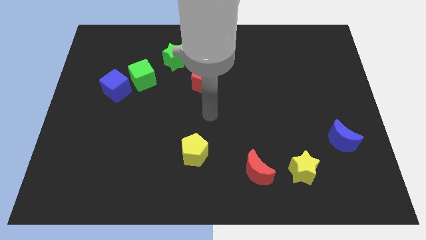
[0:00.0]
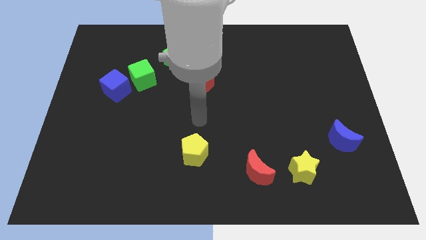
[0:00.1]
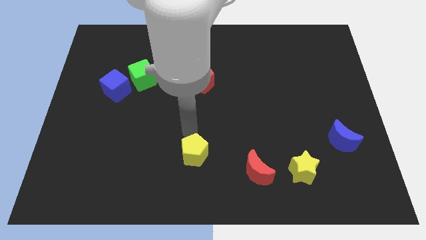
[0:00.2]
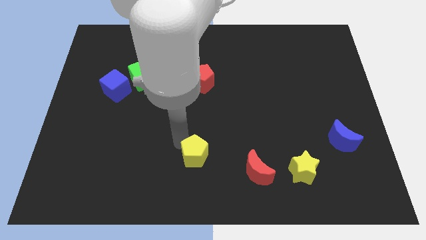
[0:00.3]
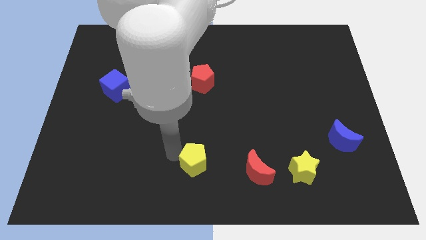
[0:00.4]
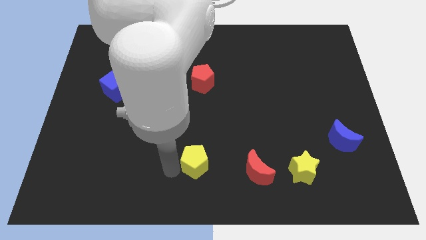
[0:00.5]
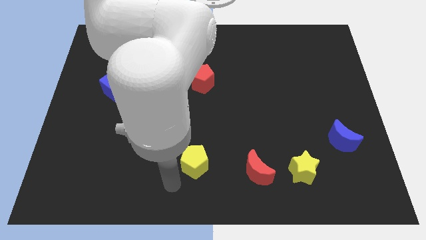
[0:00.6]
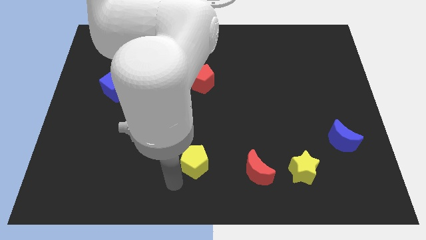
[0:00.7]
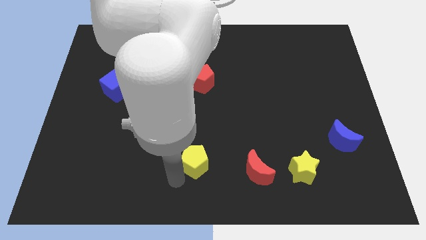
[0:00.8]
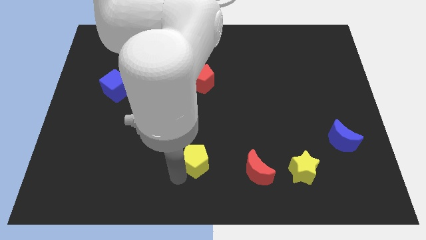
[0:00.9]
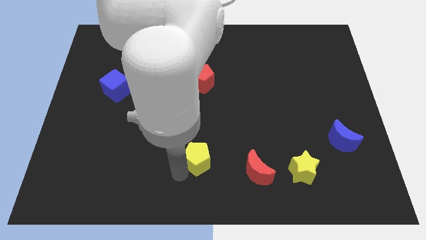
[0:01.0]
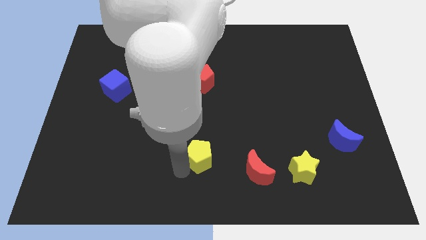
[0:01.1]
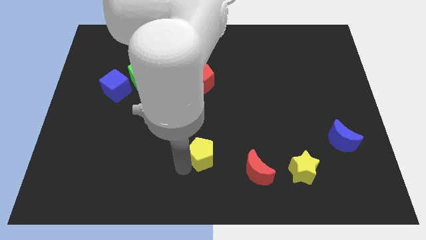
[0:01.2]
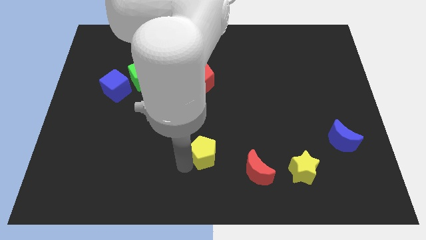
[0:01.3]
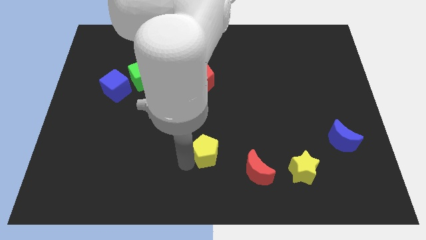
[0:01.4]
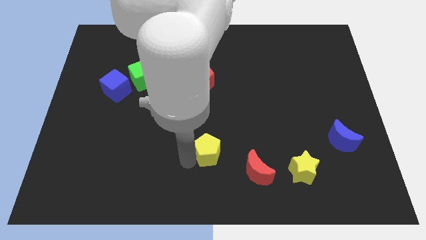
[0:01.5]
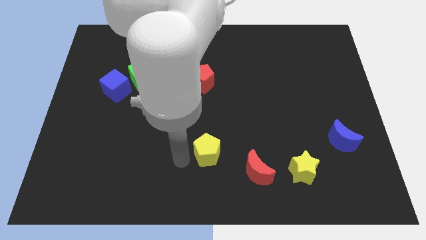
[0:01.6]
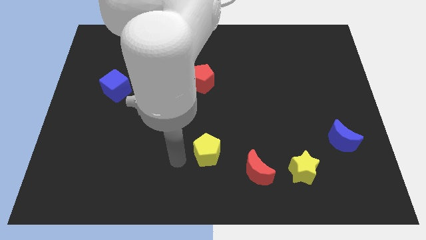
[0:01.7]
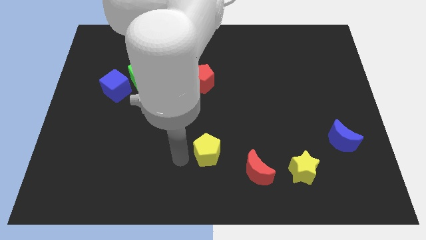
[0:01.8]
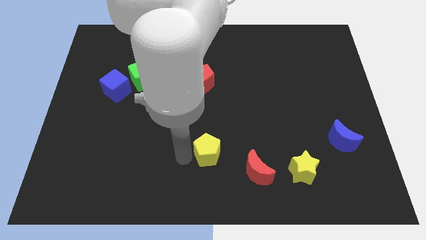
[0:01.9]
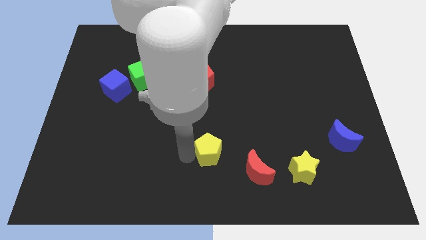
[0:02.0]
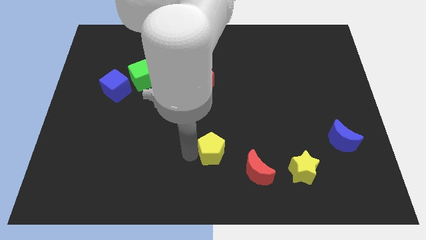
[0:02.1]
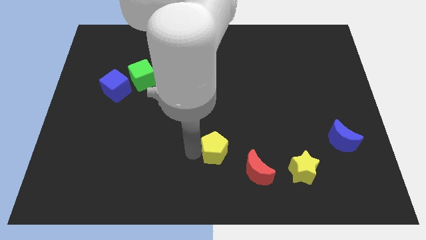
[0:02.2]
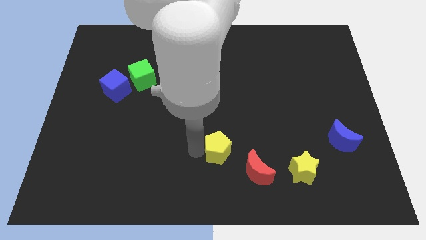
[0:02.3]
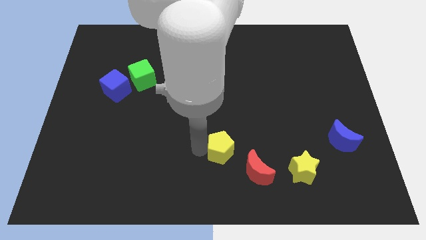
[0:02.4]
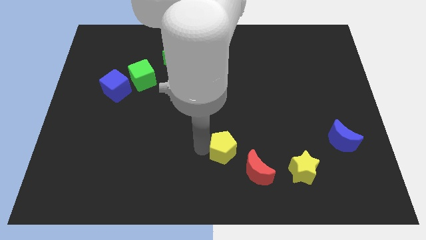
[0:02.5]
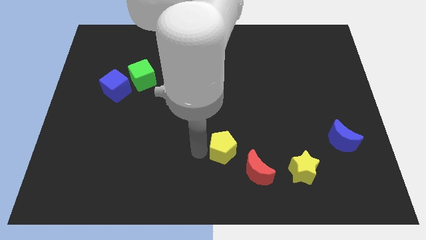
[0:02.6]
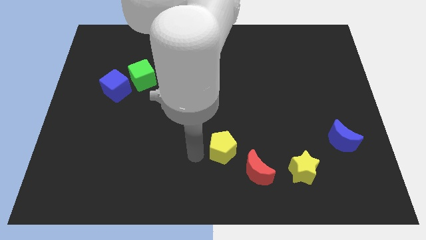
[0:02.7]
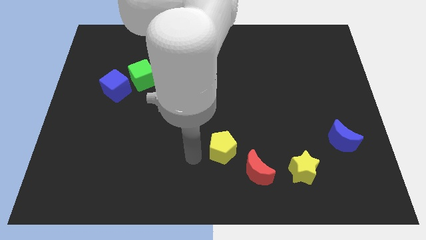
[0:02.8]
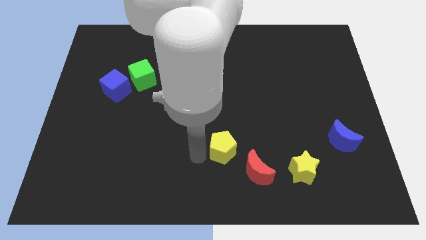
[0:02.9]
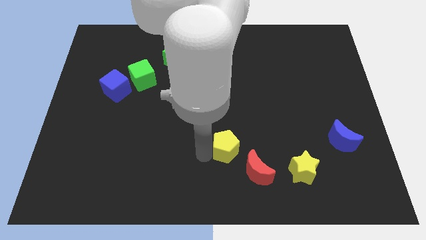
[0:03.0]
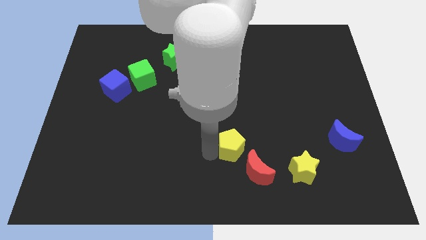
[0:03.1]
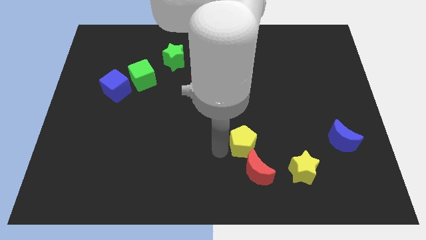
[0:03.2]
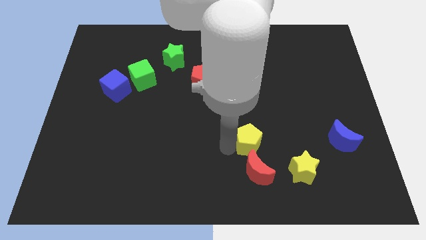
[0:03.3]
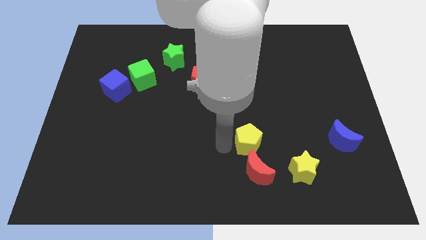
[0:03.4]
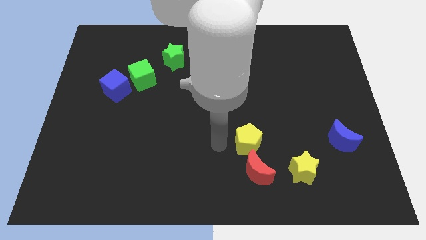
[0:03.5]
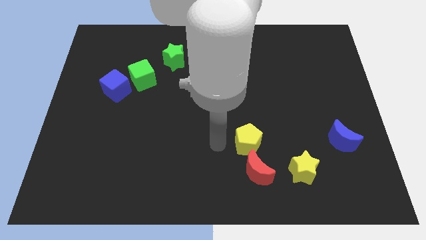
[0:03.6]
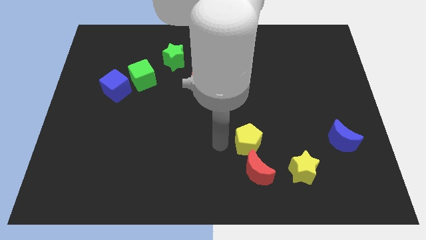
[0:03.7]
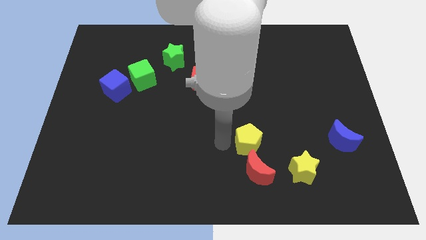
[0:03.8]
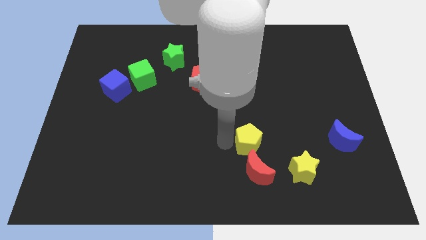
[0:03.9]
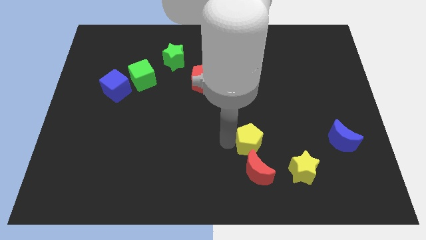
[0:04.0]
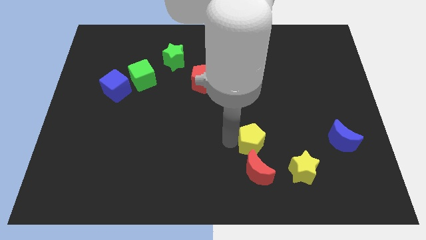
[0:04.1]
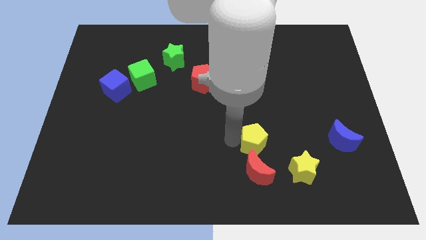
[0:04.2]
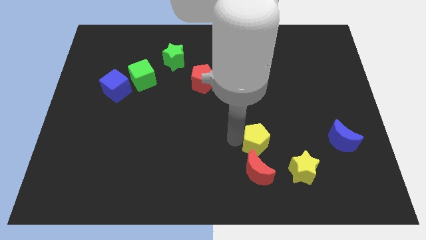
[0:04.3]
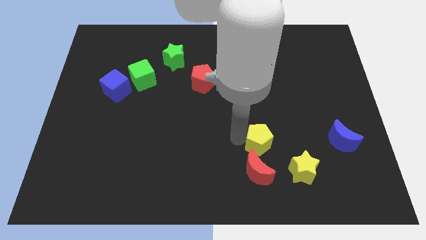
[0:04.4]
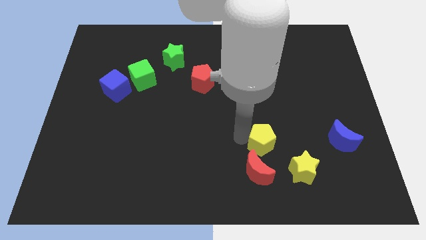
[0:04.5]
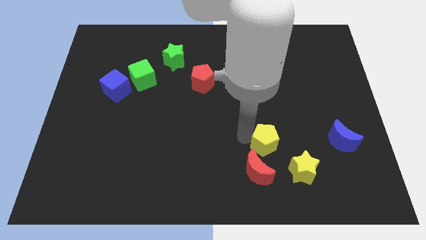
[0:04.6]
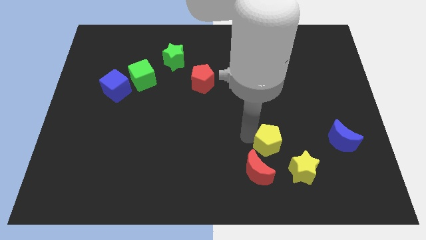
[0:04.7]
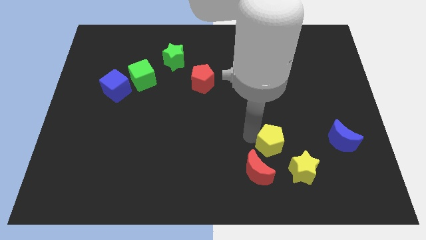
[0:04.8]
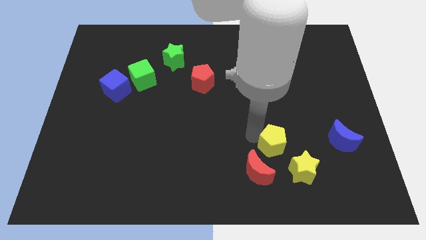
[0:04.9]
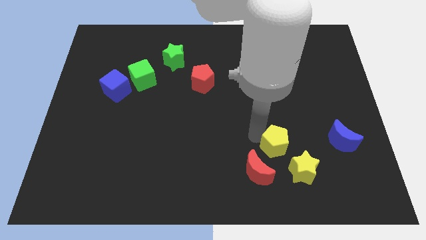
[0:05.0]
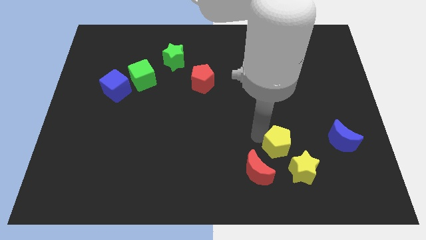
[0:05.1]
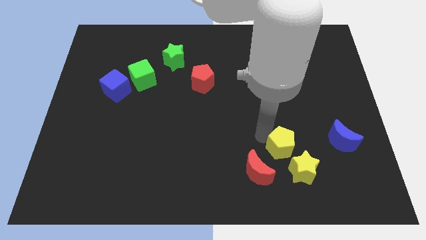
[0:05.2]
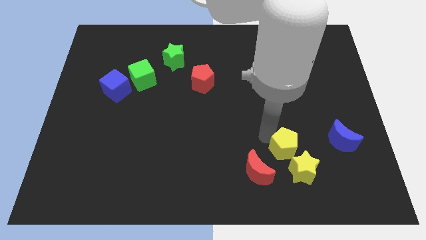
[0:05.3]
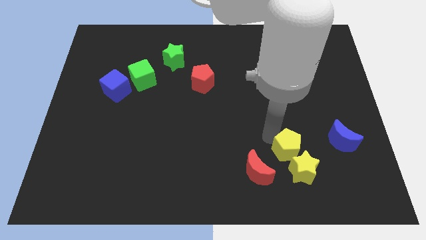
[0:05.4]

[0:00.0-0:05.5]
slide the yellow pentagon towards the yellow star

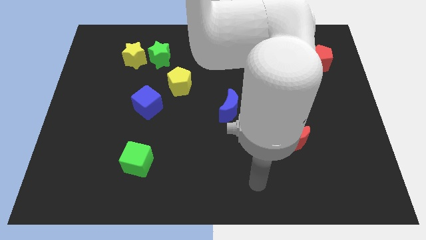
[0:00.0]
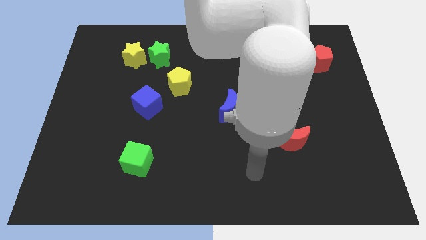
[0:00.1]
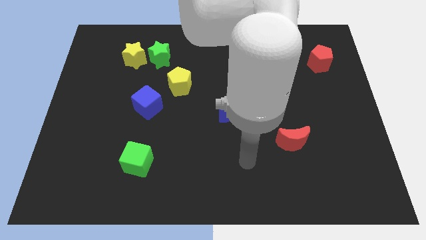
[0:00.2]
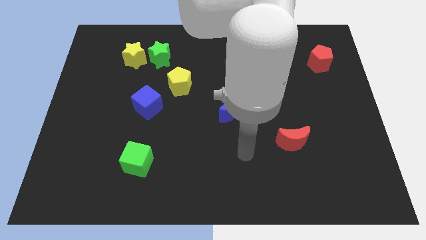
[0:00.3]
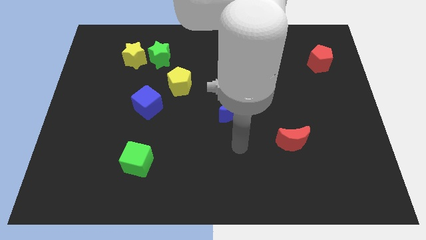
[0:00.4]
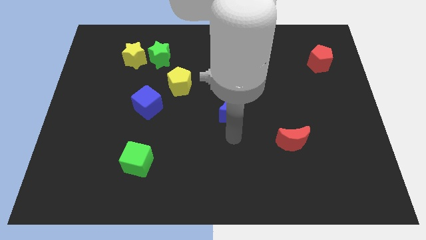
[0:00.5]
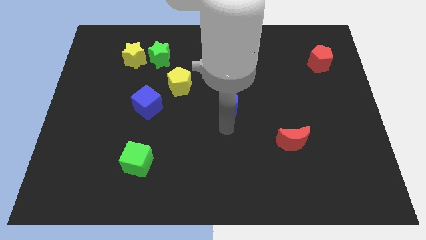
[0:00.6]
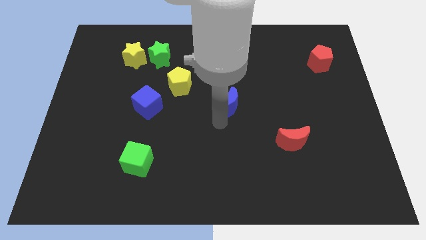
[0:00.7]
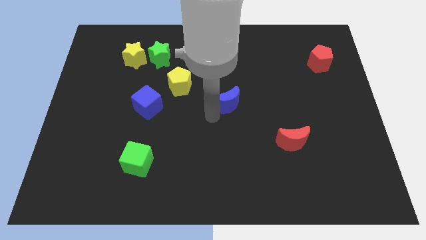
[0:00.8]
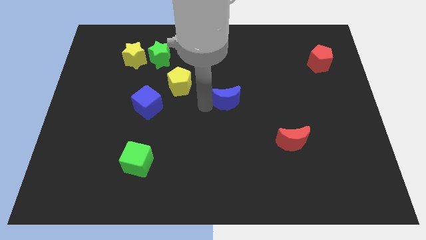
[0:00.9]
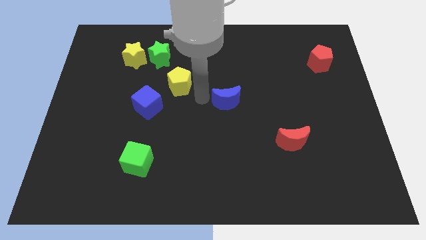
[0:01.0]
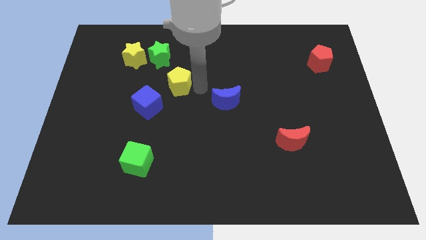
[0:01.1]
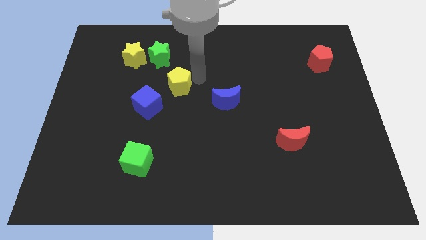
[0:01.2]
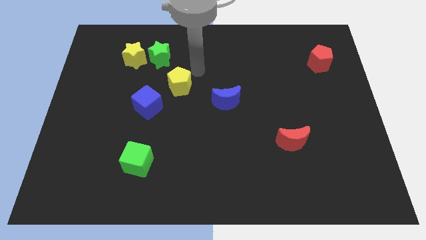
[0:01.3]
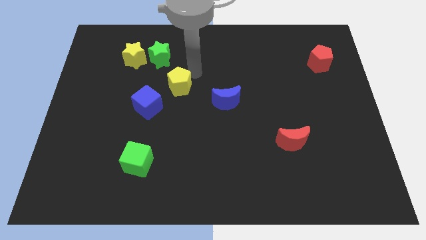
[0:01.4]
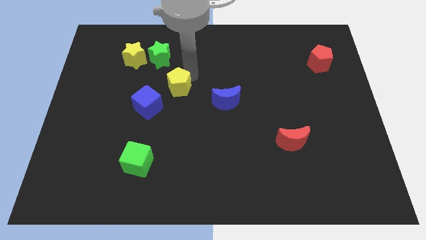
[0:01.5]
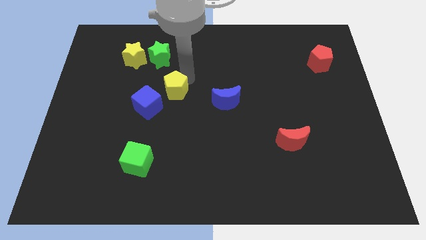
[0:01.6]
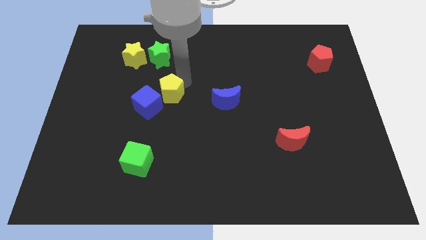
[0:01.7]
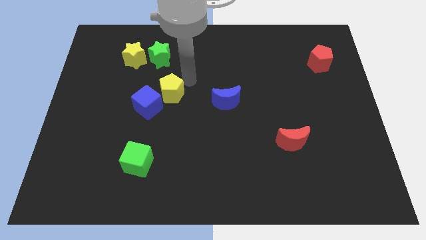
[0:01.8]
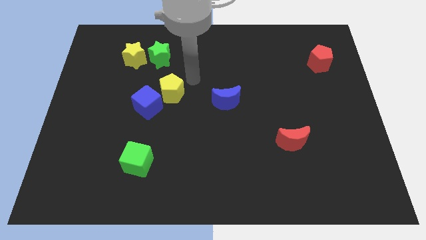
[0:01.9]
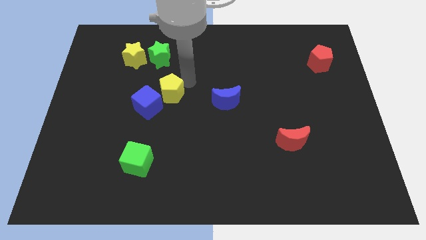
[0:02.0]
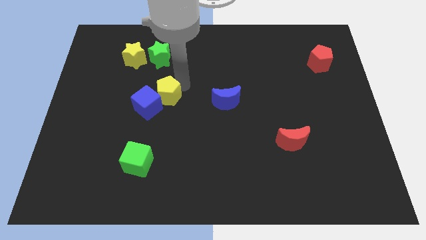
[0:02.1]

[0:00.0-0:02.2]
push the yellow pentagon next to the blue cube
